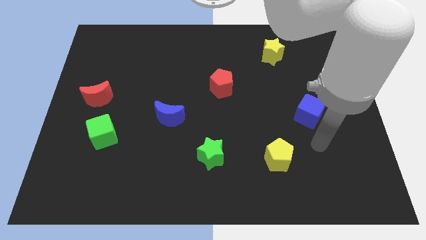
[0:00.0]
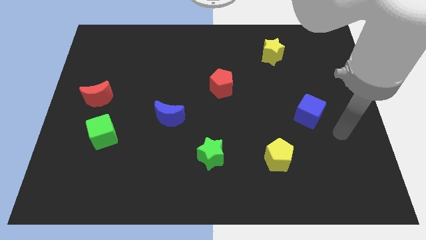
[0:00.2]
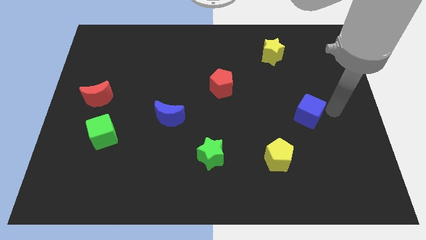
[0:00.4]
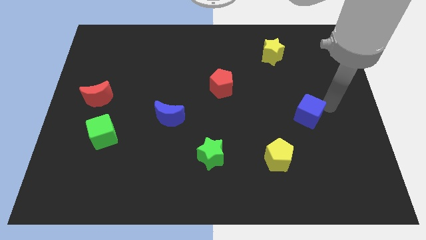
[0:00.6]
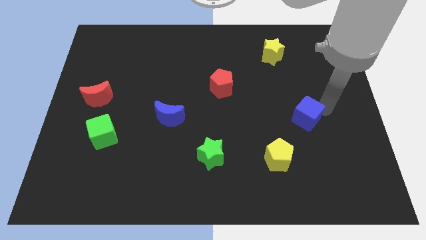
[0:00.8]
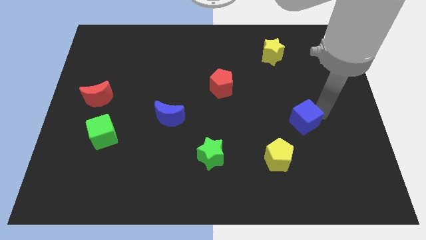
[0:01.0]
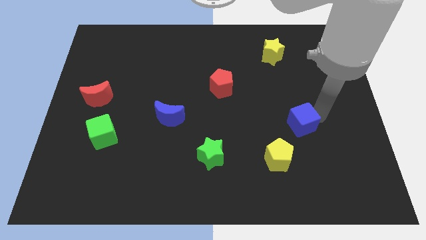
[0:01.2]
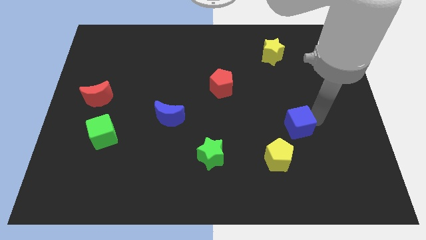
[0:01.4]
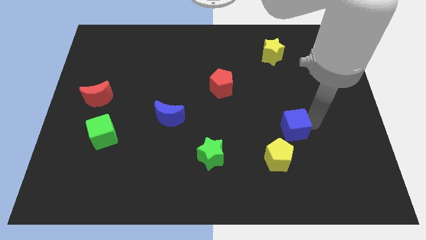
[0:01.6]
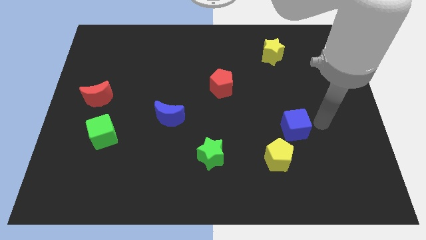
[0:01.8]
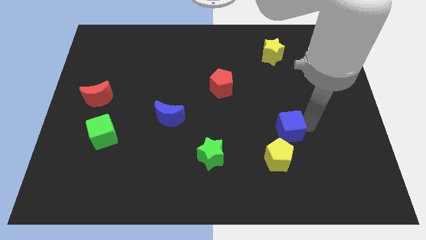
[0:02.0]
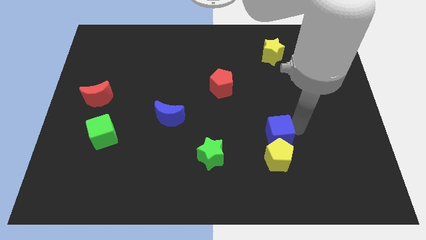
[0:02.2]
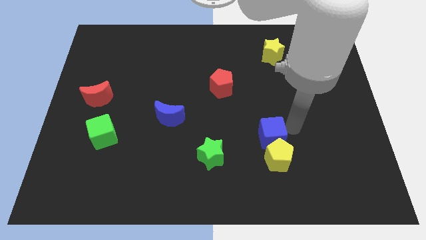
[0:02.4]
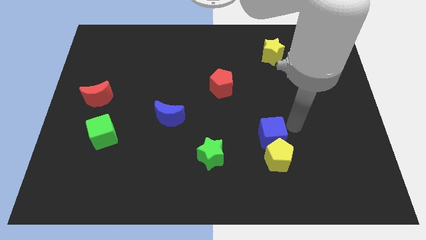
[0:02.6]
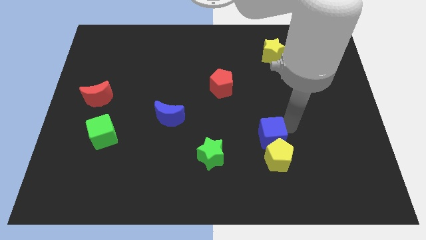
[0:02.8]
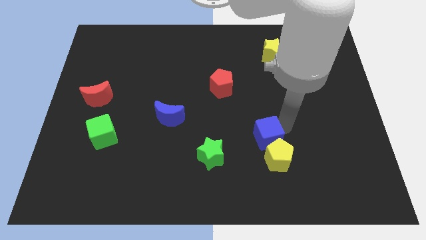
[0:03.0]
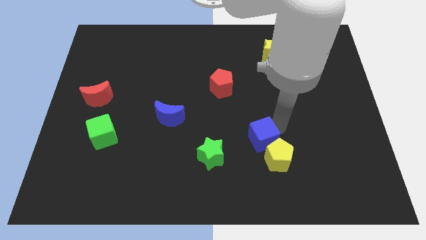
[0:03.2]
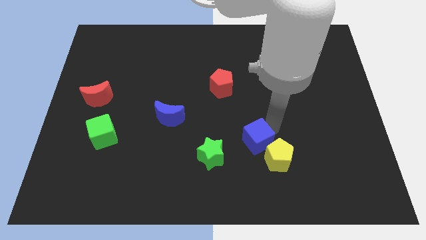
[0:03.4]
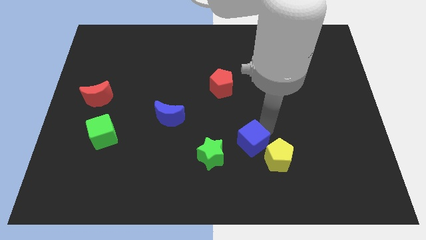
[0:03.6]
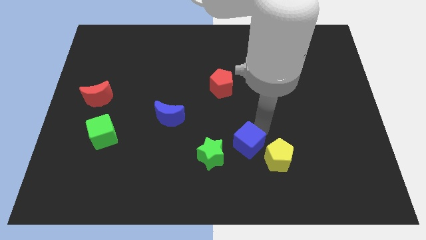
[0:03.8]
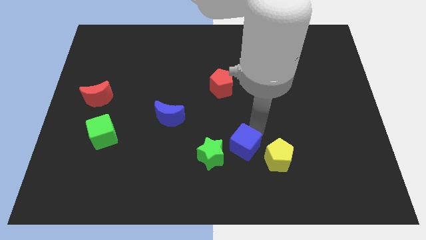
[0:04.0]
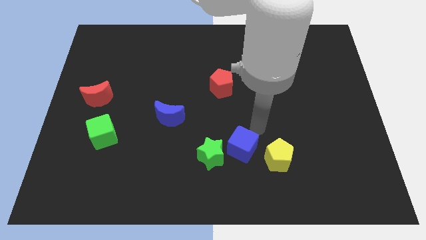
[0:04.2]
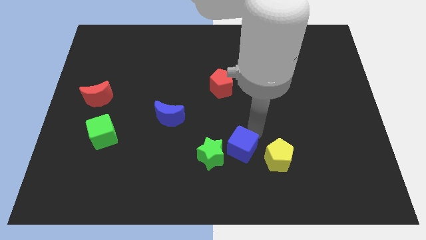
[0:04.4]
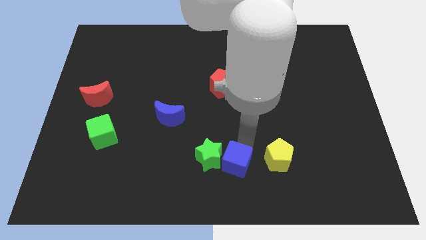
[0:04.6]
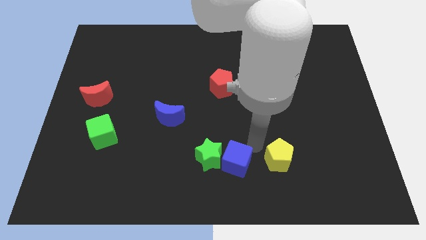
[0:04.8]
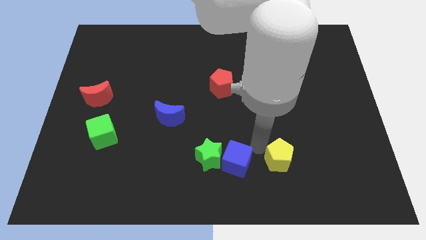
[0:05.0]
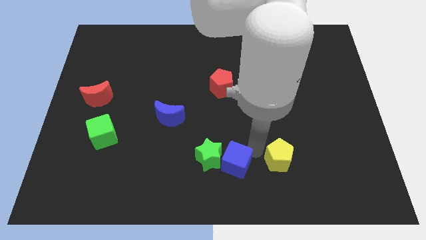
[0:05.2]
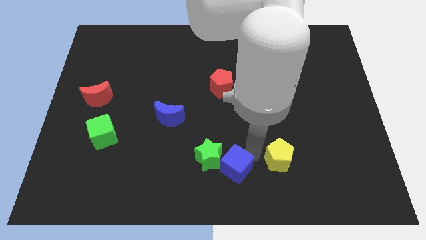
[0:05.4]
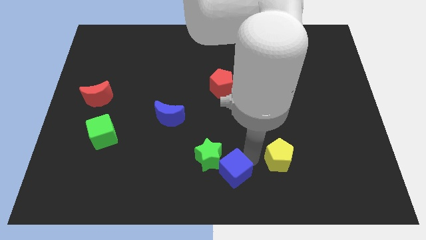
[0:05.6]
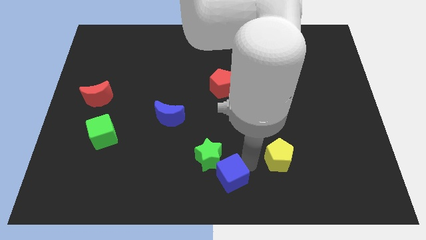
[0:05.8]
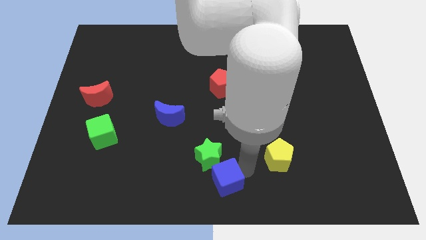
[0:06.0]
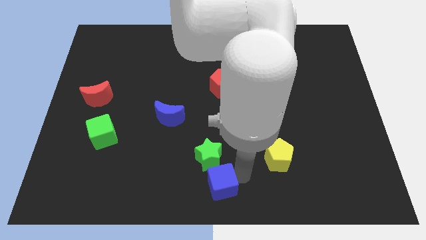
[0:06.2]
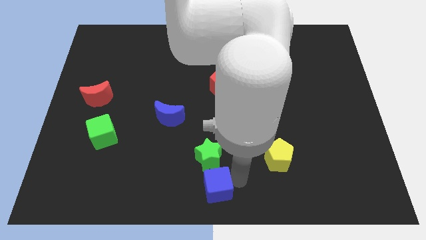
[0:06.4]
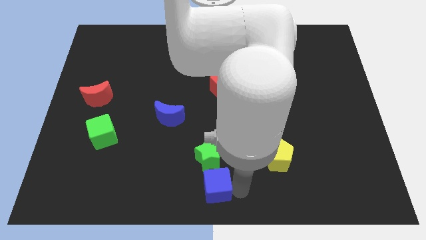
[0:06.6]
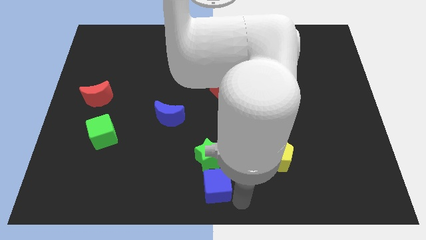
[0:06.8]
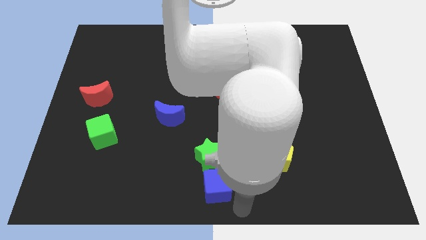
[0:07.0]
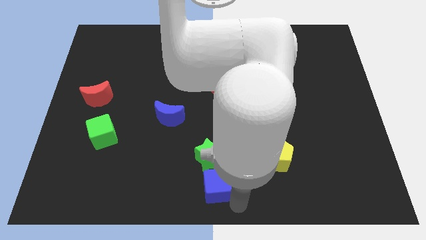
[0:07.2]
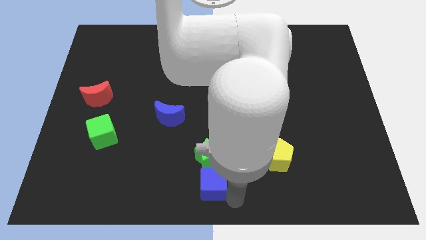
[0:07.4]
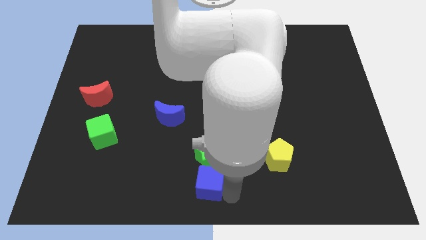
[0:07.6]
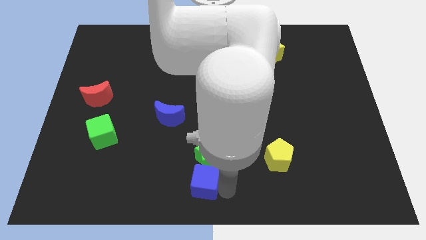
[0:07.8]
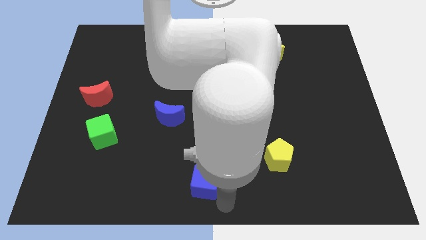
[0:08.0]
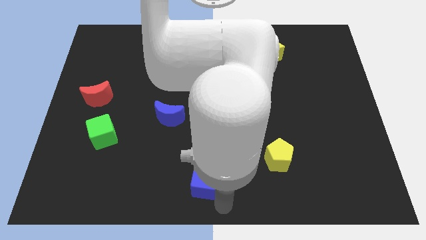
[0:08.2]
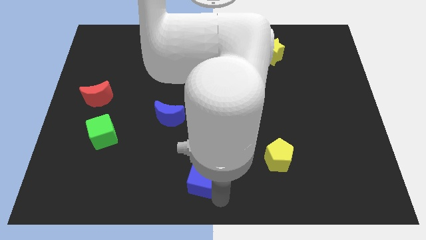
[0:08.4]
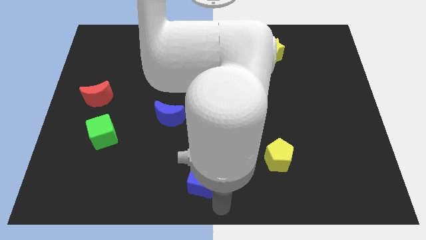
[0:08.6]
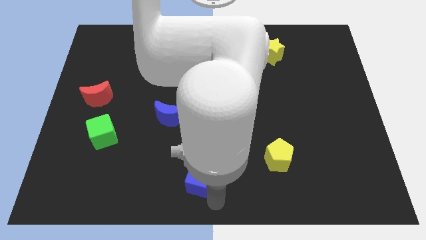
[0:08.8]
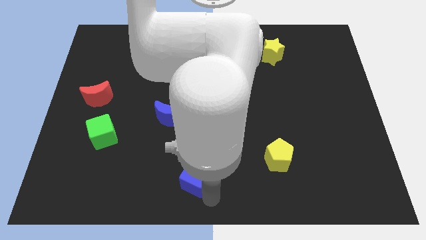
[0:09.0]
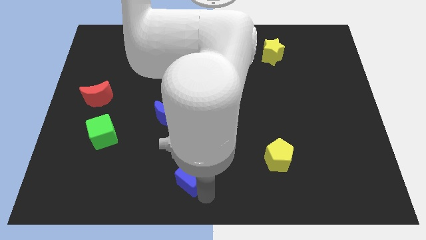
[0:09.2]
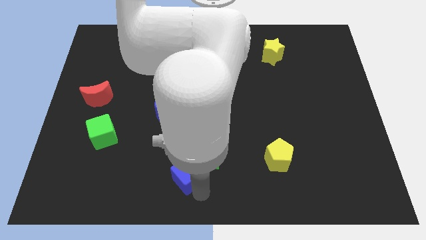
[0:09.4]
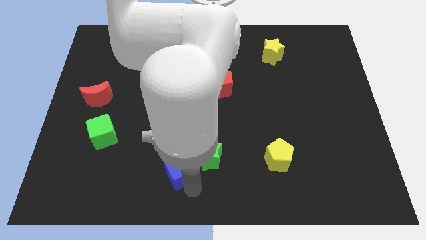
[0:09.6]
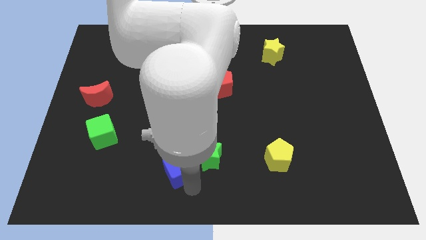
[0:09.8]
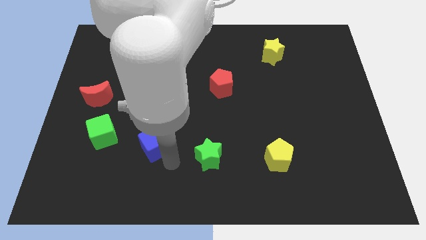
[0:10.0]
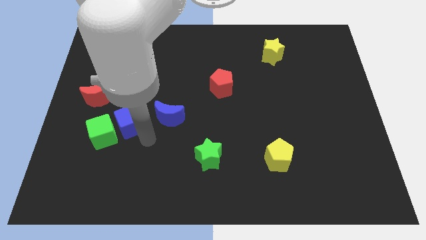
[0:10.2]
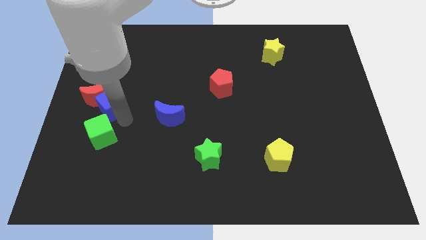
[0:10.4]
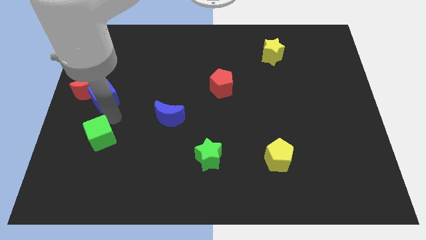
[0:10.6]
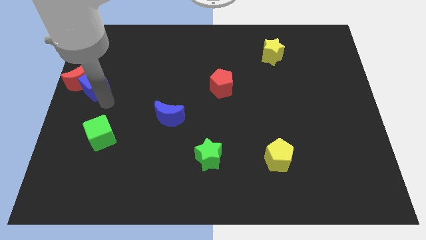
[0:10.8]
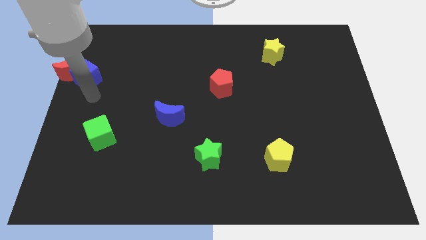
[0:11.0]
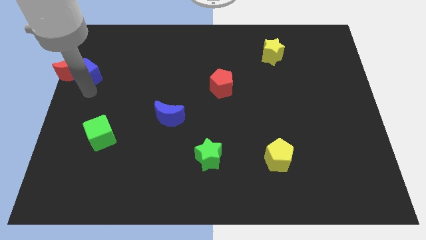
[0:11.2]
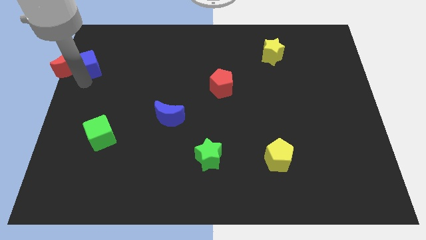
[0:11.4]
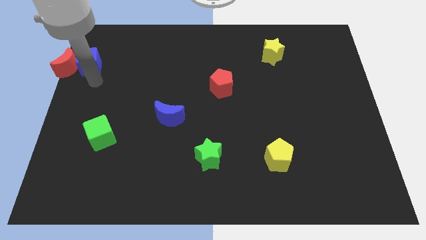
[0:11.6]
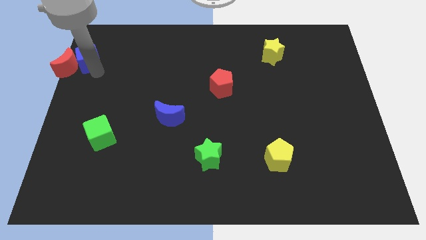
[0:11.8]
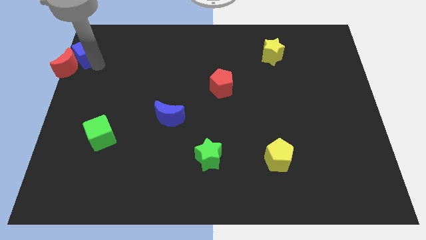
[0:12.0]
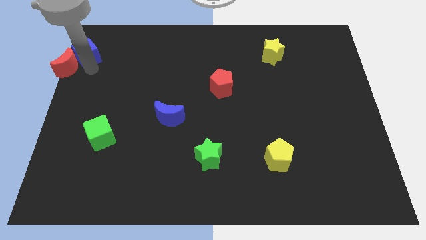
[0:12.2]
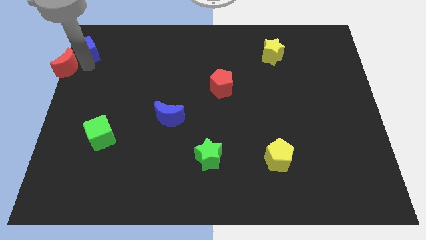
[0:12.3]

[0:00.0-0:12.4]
slide the blue cube to the top left of the board
